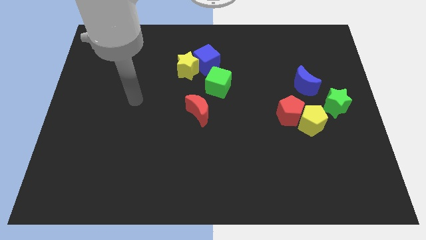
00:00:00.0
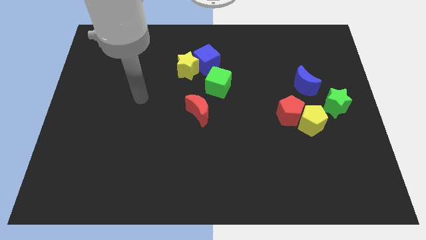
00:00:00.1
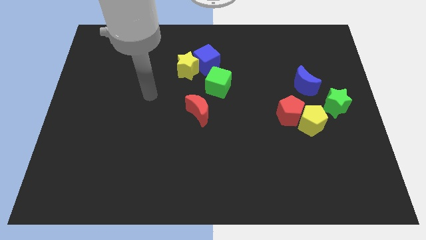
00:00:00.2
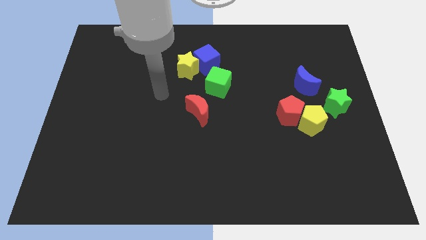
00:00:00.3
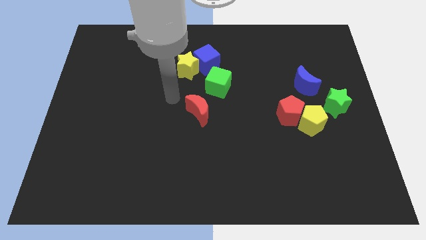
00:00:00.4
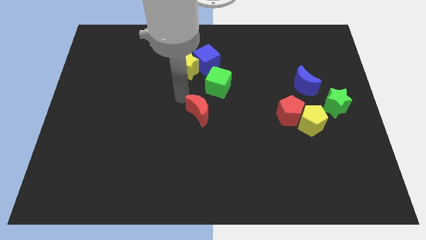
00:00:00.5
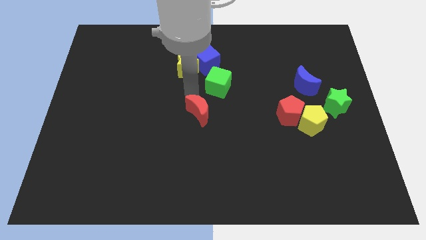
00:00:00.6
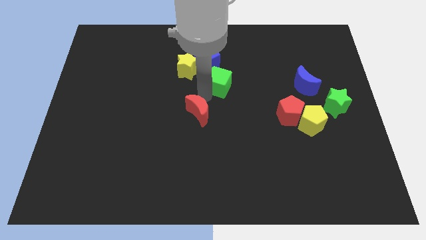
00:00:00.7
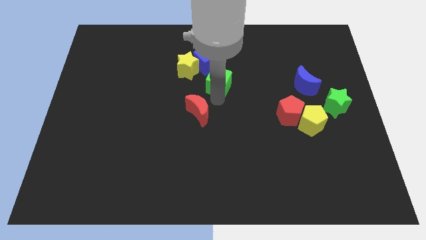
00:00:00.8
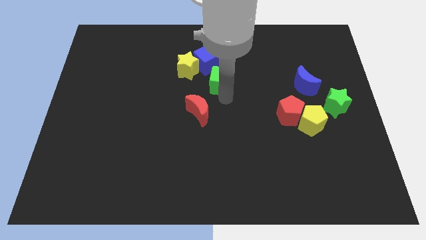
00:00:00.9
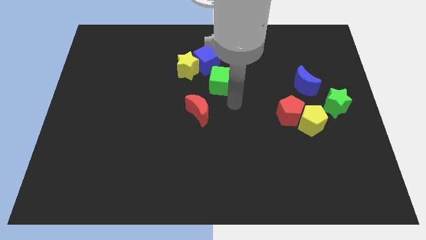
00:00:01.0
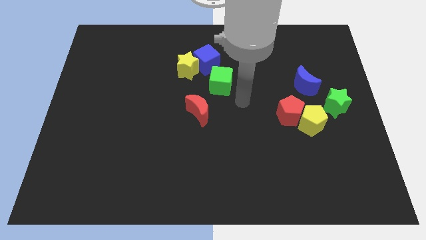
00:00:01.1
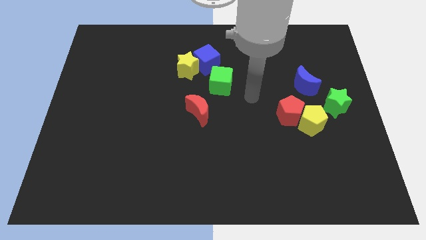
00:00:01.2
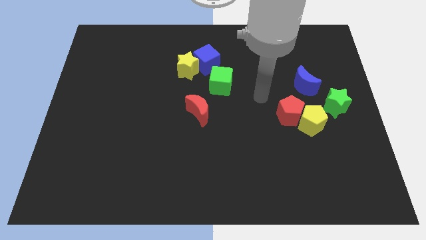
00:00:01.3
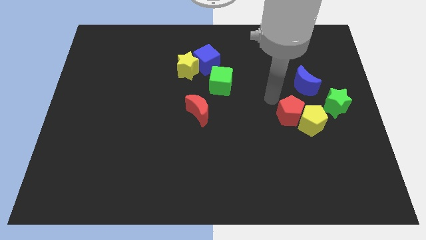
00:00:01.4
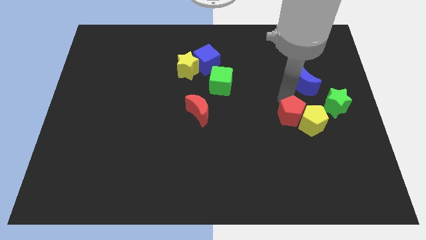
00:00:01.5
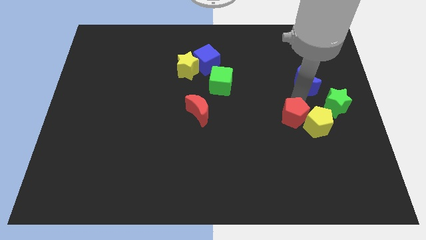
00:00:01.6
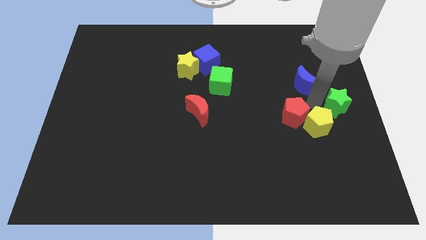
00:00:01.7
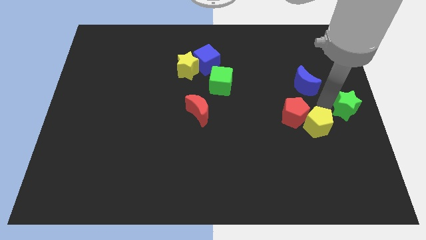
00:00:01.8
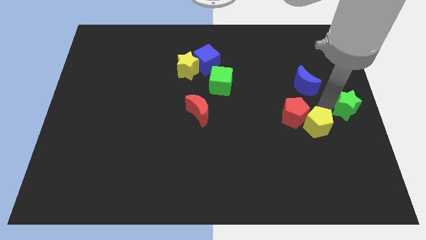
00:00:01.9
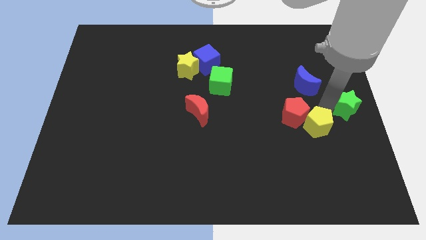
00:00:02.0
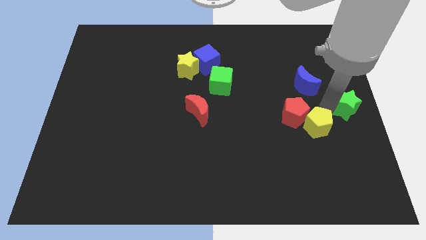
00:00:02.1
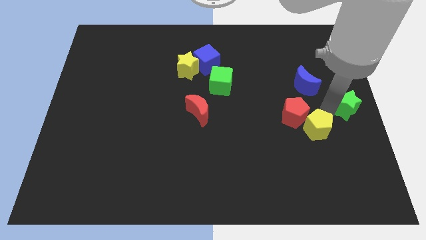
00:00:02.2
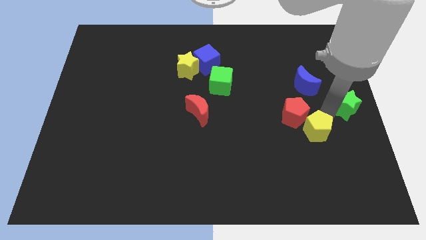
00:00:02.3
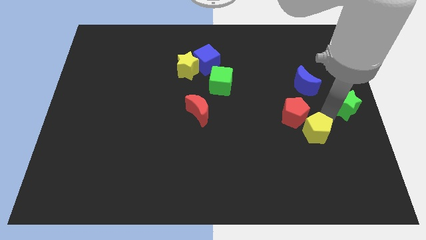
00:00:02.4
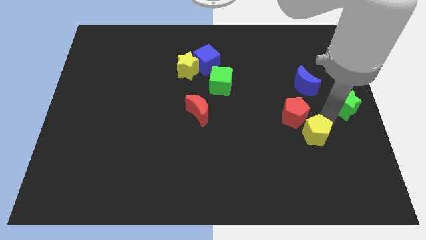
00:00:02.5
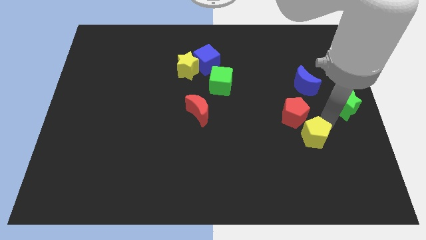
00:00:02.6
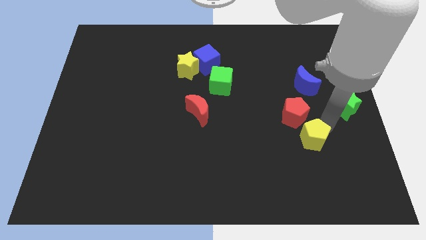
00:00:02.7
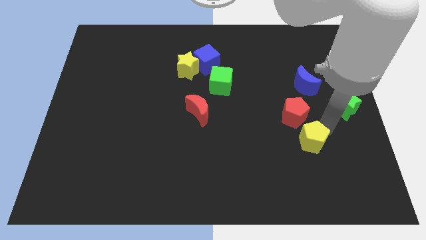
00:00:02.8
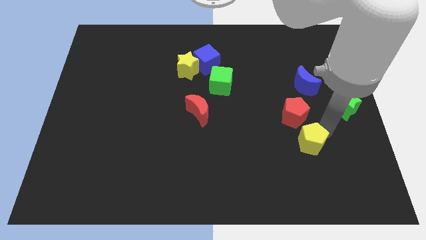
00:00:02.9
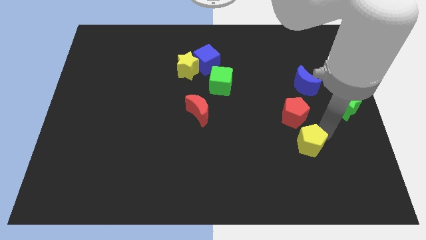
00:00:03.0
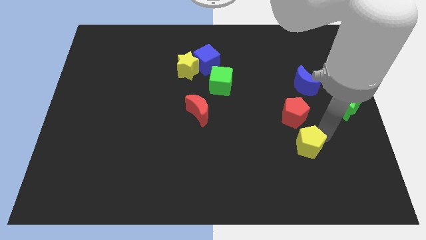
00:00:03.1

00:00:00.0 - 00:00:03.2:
pull the yellow pentagon apart from the red pentagon and green star

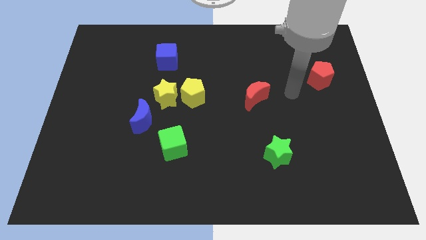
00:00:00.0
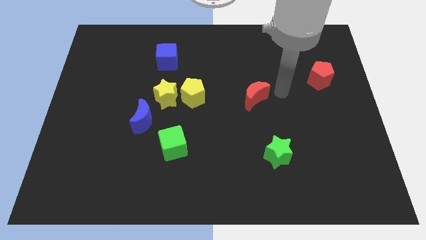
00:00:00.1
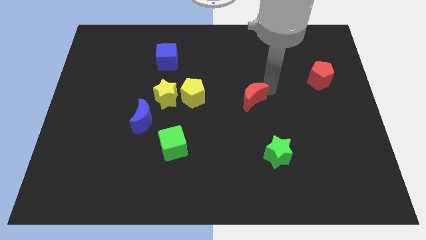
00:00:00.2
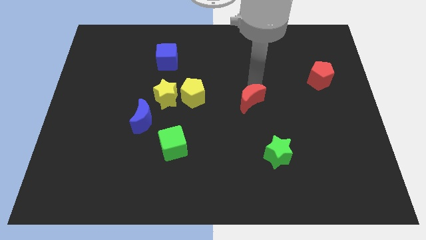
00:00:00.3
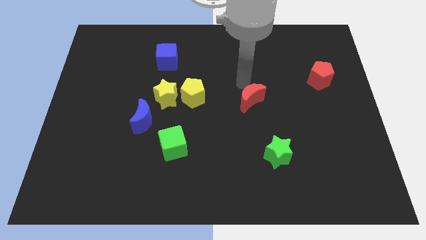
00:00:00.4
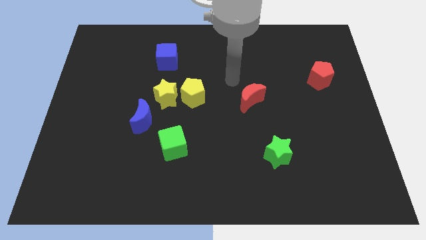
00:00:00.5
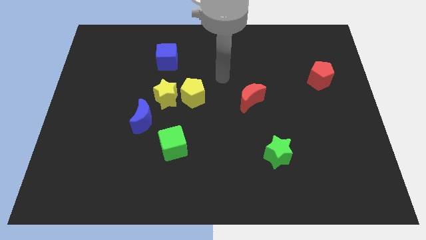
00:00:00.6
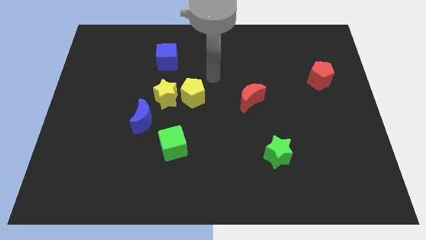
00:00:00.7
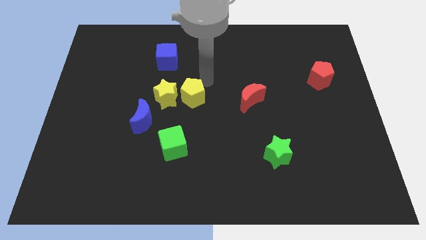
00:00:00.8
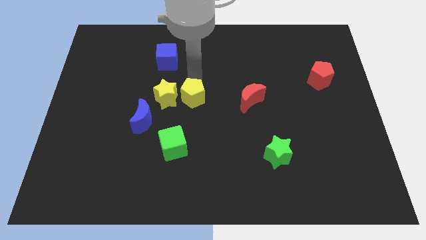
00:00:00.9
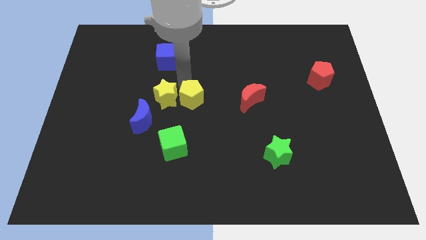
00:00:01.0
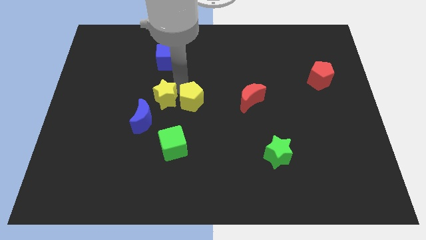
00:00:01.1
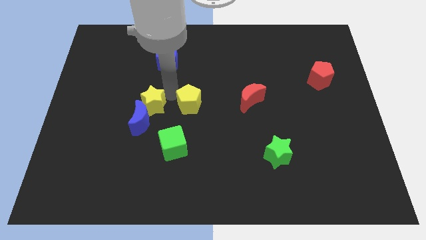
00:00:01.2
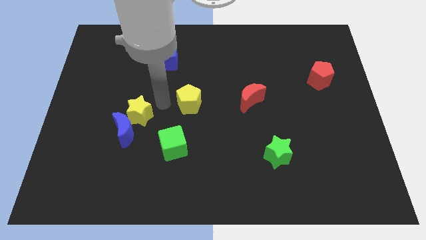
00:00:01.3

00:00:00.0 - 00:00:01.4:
move the yellow pentagon away from the yellow star

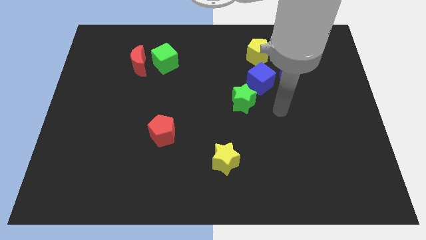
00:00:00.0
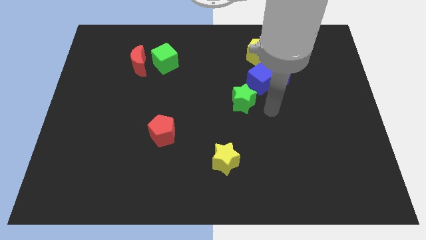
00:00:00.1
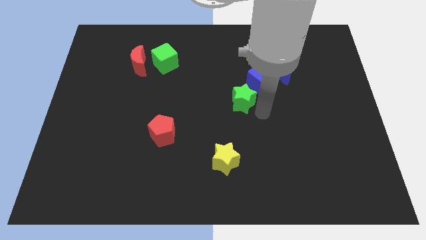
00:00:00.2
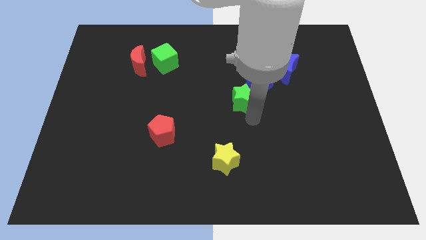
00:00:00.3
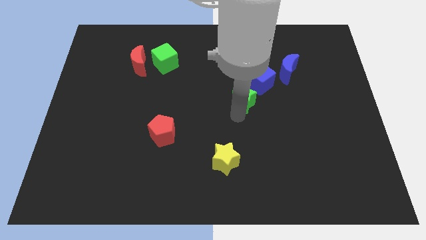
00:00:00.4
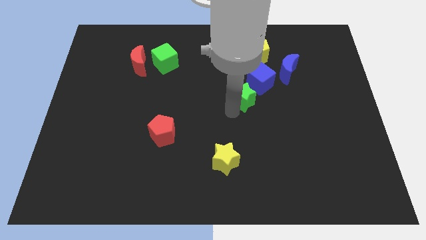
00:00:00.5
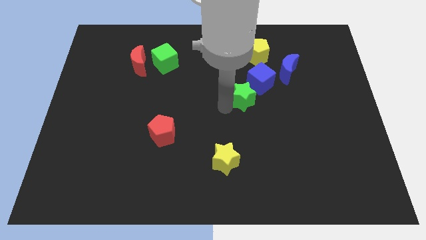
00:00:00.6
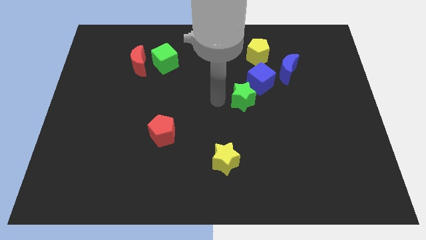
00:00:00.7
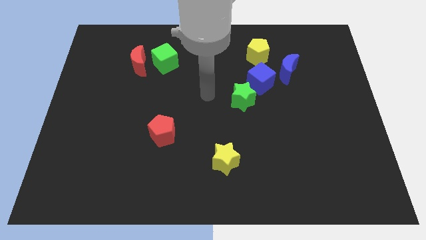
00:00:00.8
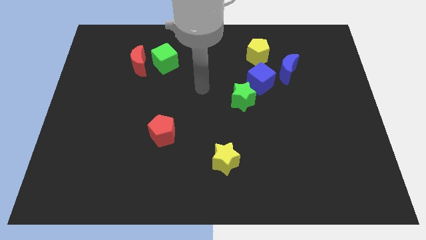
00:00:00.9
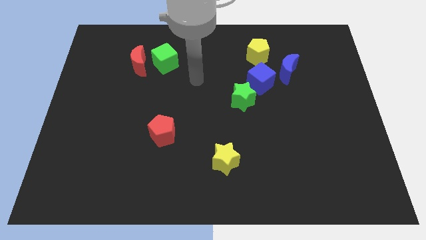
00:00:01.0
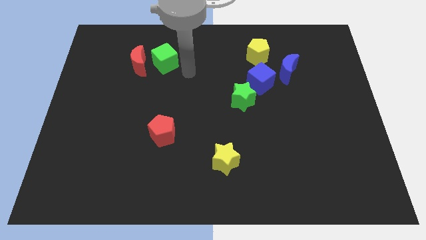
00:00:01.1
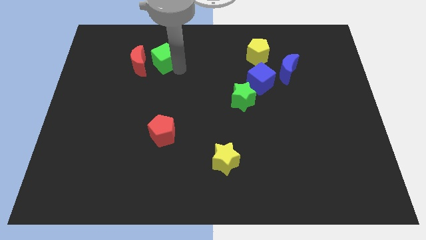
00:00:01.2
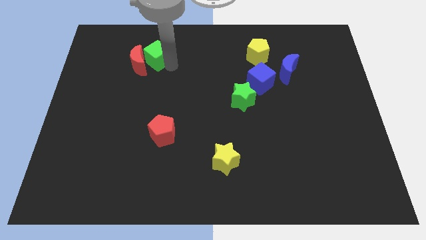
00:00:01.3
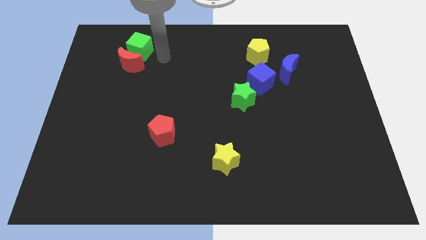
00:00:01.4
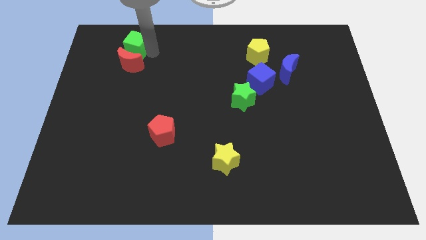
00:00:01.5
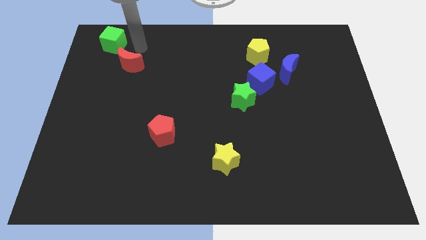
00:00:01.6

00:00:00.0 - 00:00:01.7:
pull the red moon apart from the green cube

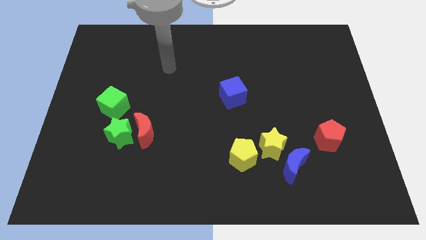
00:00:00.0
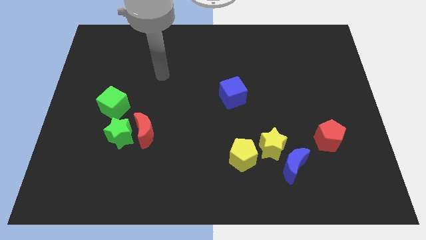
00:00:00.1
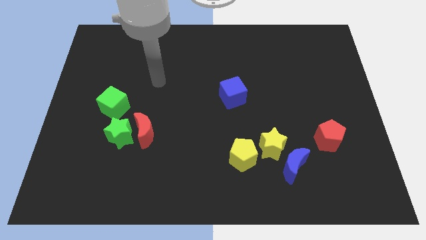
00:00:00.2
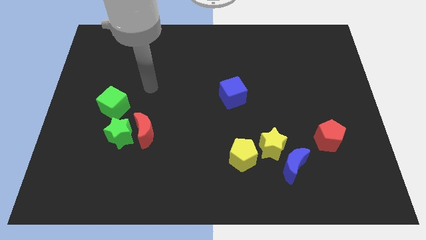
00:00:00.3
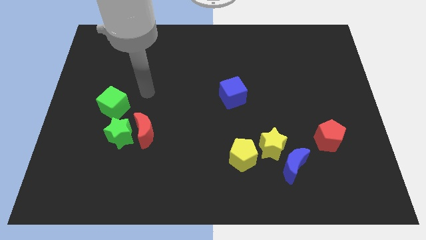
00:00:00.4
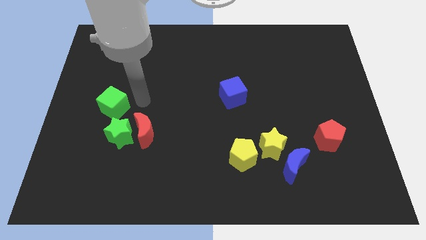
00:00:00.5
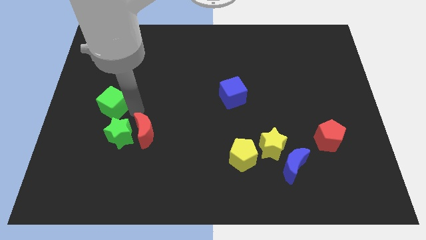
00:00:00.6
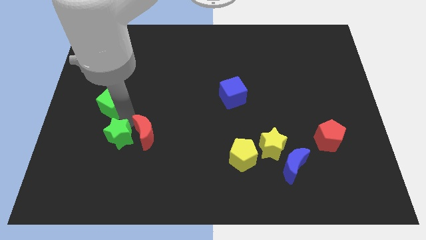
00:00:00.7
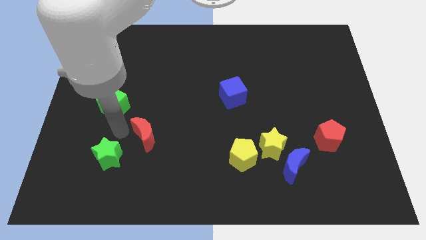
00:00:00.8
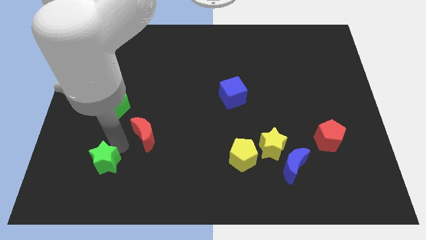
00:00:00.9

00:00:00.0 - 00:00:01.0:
separate the red moon from the green star

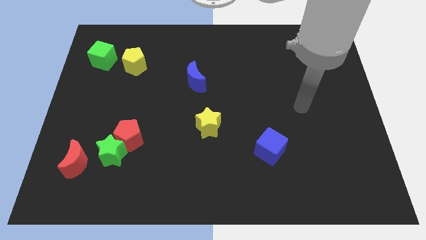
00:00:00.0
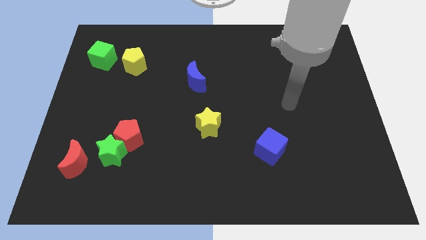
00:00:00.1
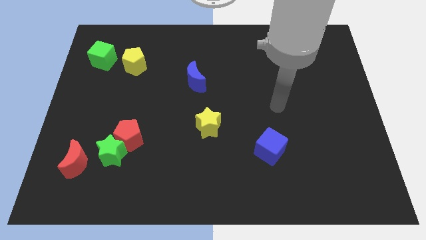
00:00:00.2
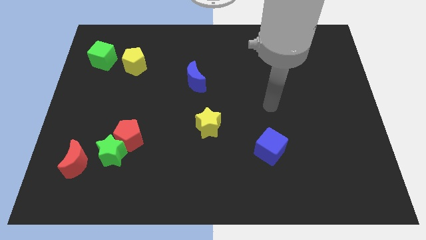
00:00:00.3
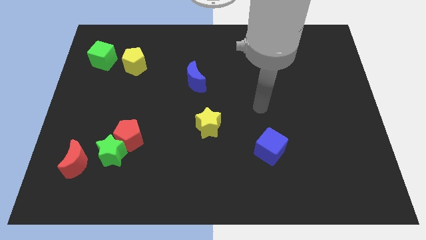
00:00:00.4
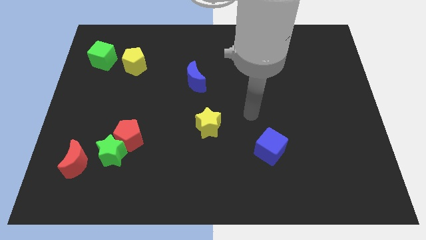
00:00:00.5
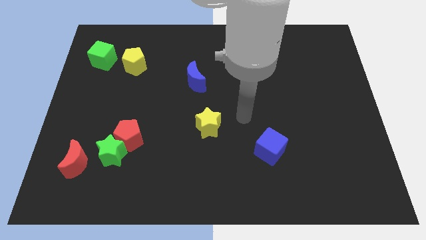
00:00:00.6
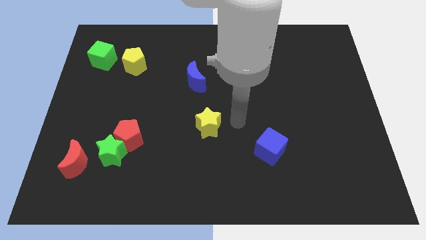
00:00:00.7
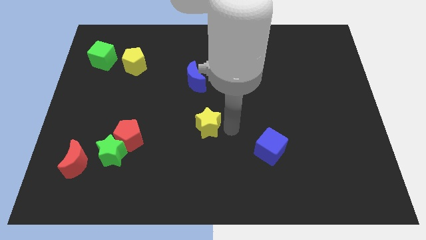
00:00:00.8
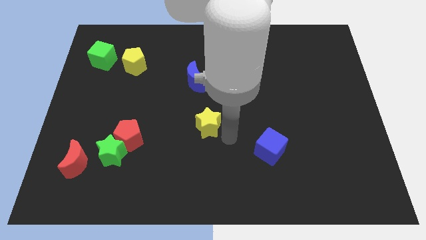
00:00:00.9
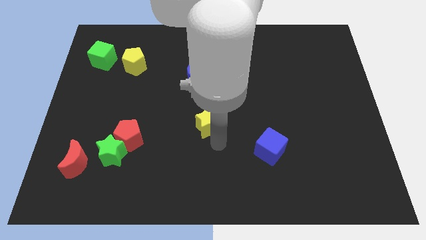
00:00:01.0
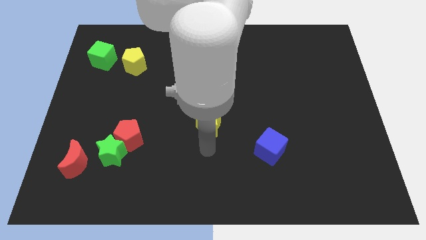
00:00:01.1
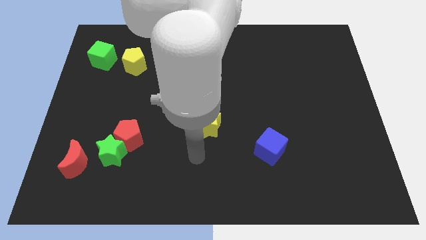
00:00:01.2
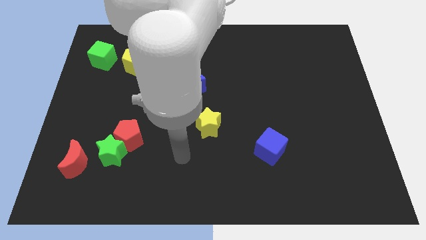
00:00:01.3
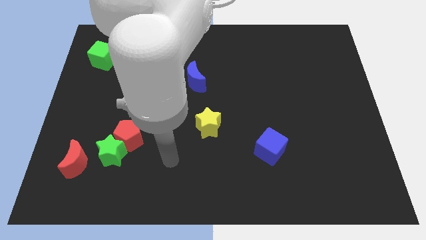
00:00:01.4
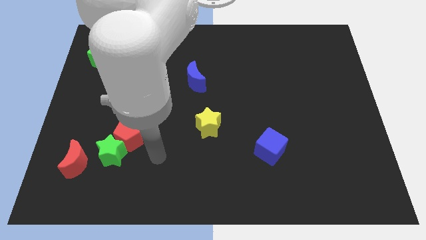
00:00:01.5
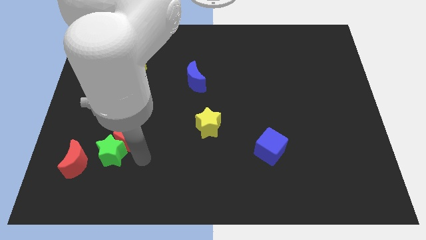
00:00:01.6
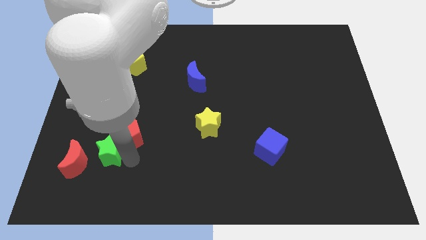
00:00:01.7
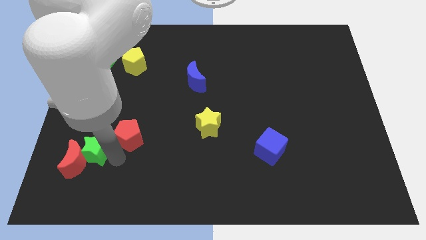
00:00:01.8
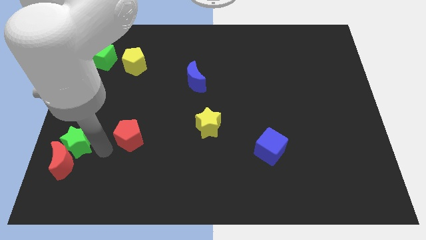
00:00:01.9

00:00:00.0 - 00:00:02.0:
move the red pentagon away from the green star
